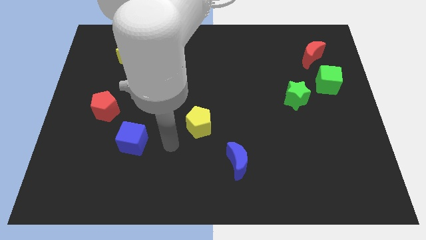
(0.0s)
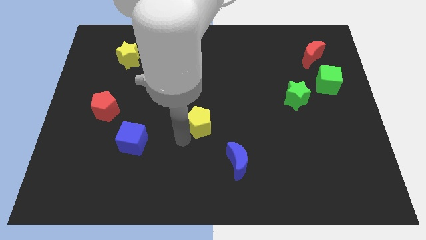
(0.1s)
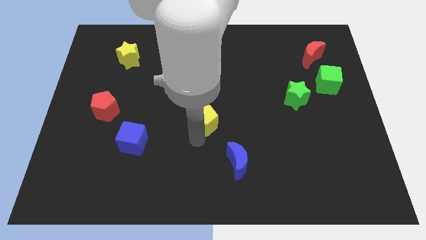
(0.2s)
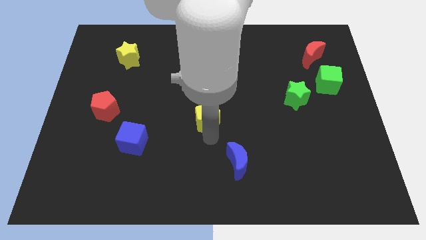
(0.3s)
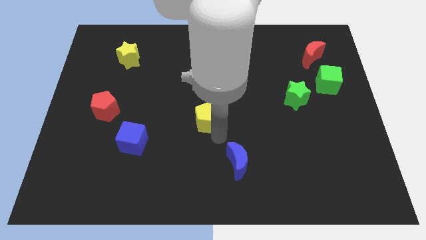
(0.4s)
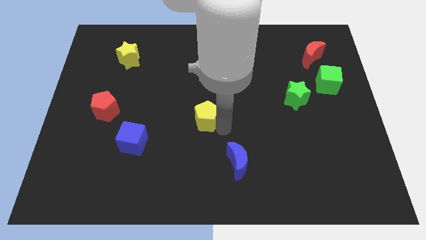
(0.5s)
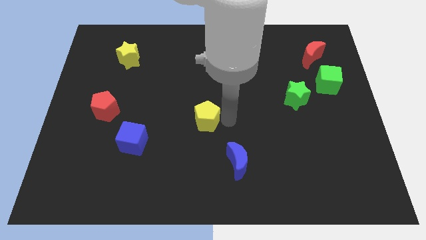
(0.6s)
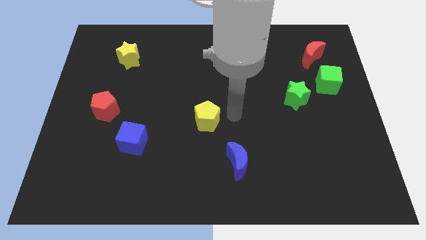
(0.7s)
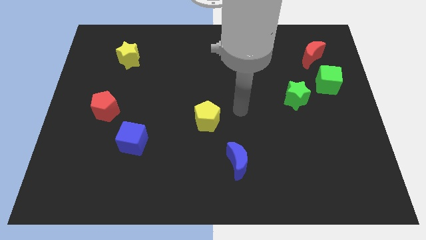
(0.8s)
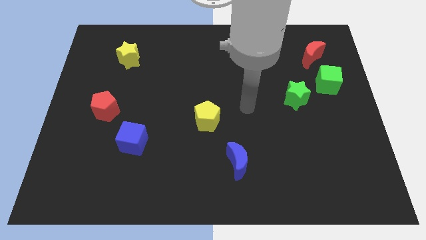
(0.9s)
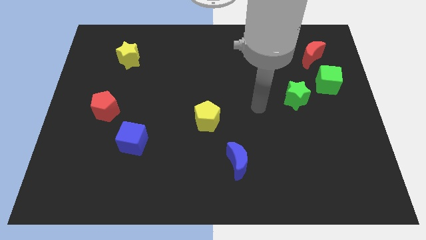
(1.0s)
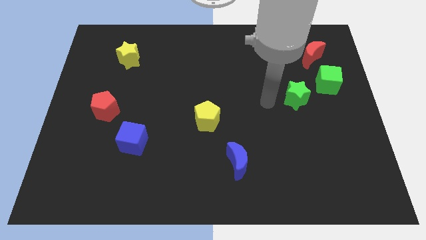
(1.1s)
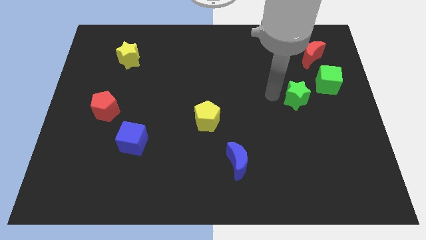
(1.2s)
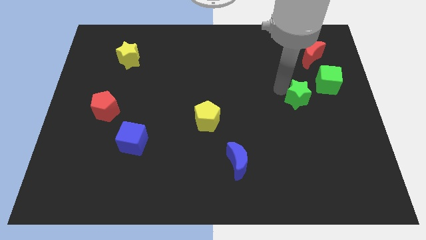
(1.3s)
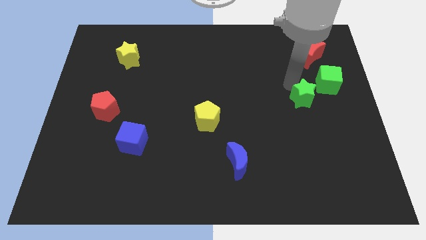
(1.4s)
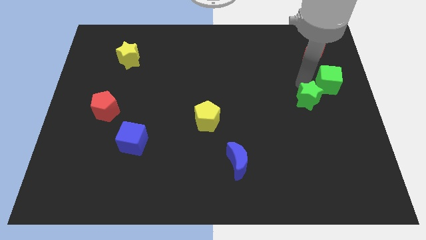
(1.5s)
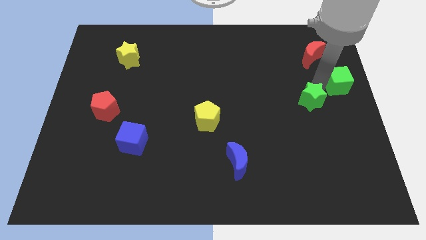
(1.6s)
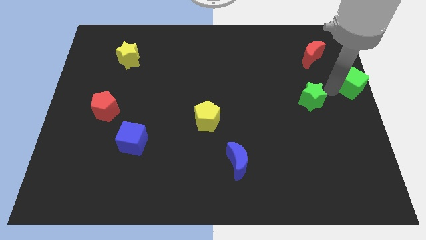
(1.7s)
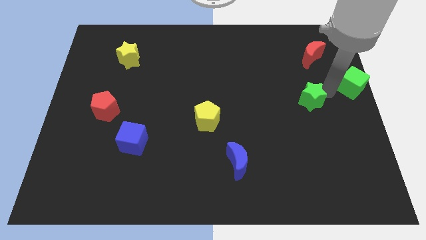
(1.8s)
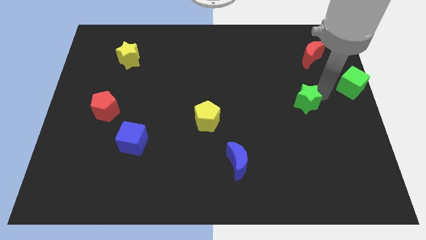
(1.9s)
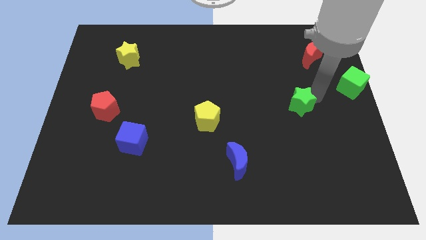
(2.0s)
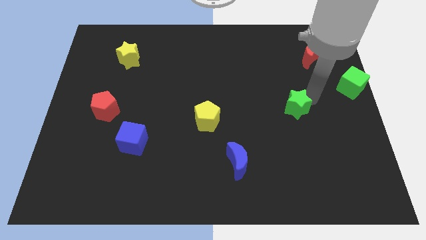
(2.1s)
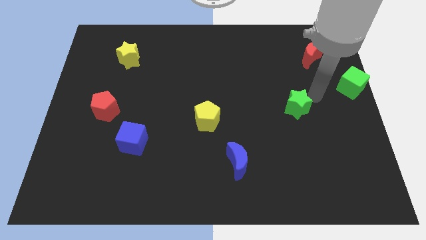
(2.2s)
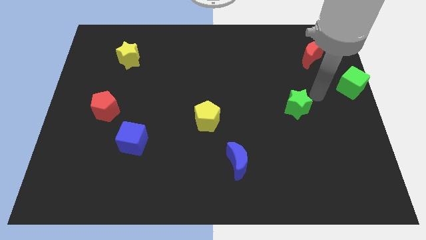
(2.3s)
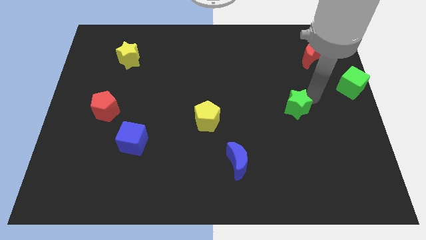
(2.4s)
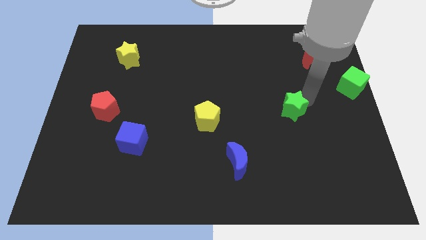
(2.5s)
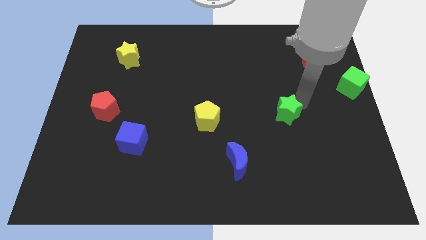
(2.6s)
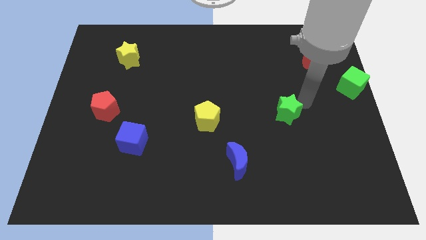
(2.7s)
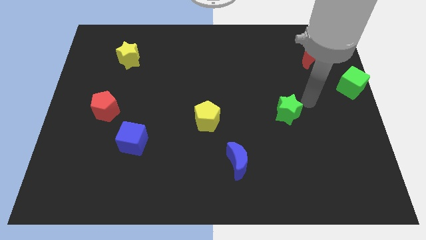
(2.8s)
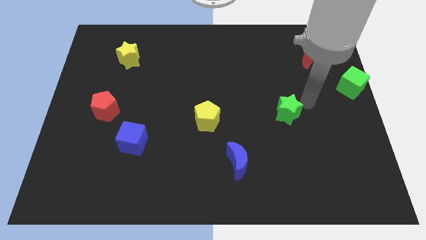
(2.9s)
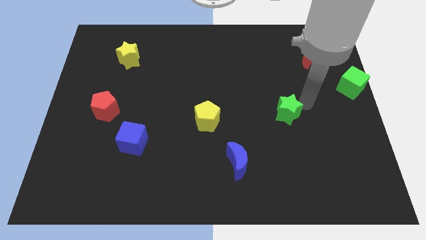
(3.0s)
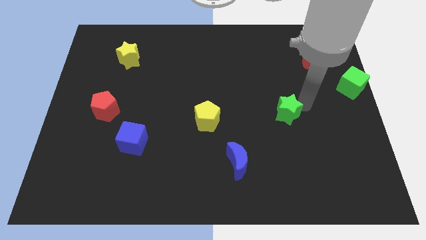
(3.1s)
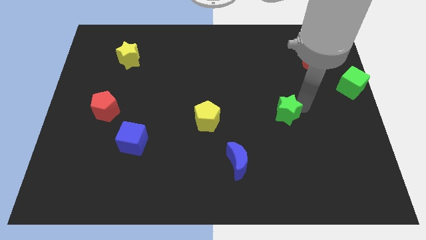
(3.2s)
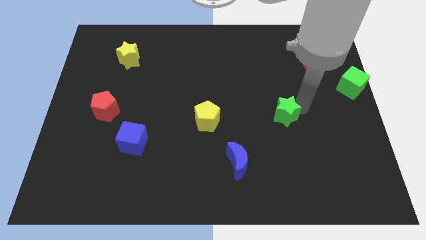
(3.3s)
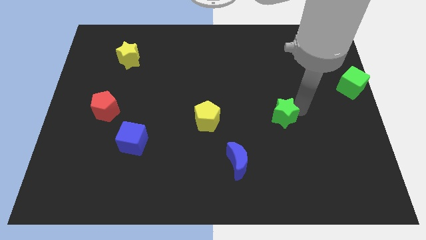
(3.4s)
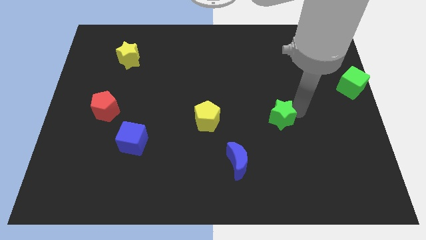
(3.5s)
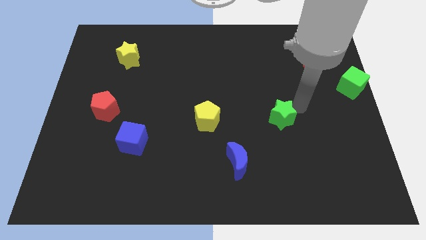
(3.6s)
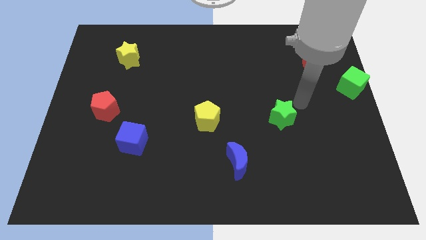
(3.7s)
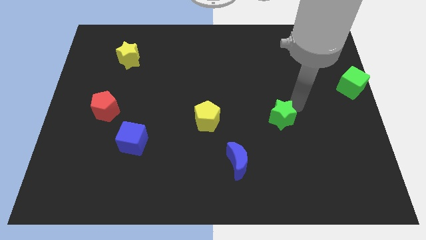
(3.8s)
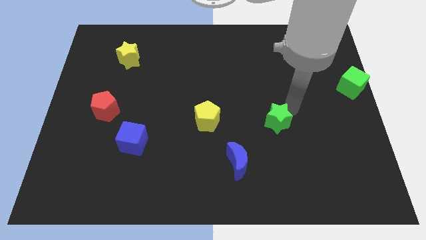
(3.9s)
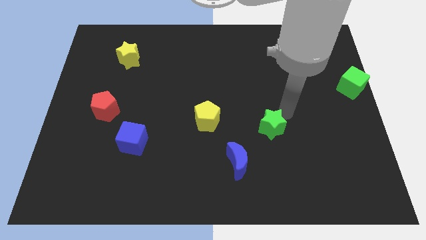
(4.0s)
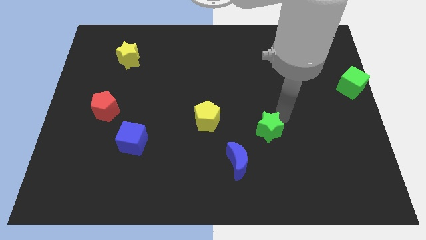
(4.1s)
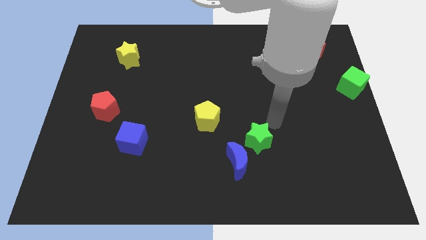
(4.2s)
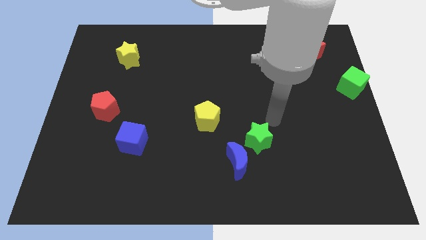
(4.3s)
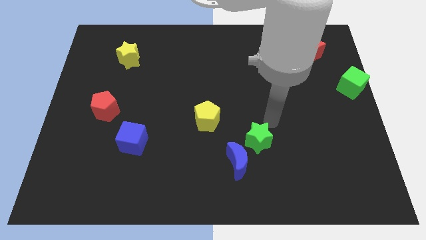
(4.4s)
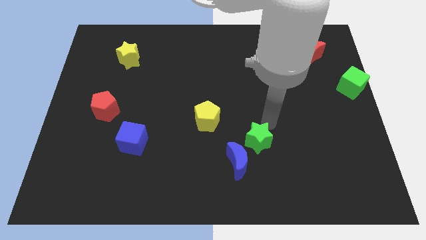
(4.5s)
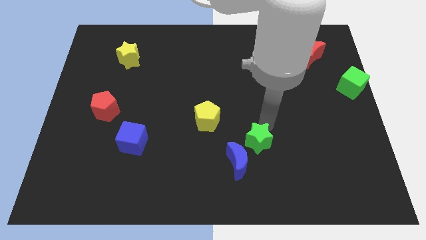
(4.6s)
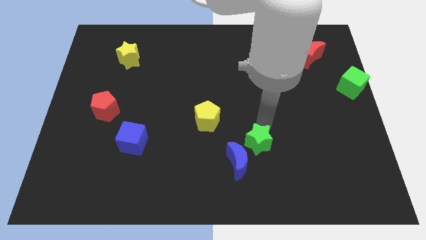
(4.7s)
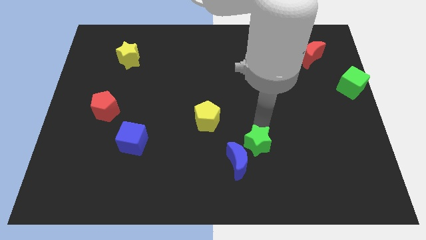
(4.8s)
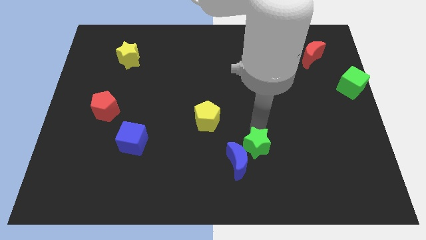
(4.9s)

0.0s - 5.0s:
put the green star next to the blue moon
